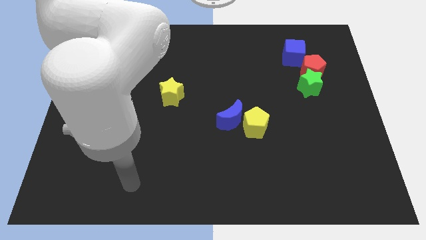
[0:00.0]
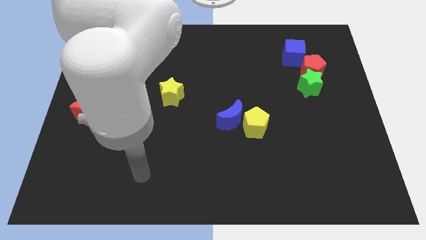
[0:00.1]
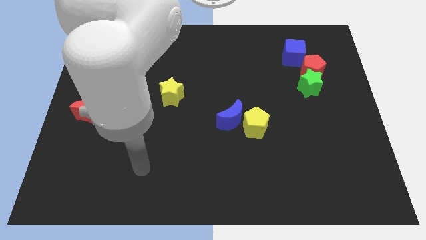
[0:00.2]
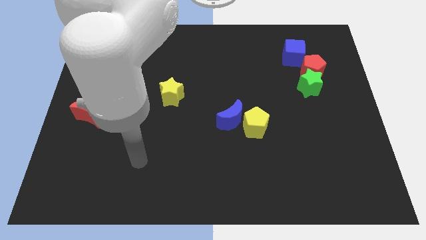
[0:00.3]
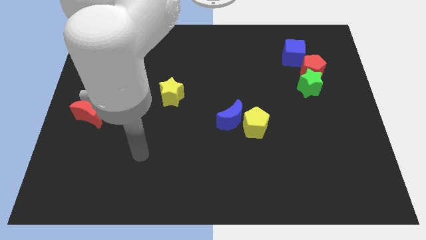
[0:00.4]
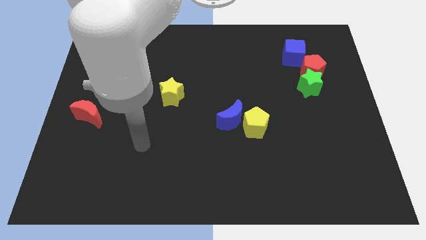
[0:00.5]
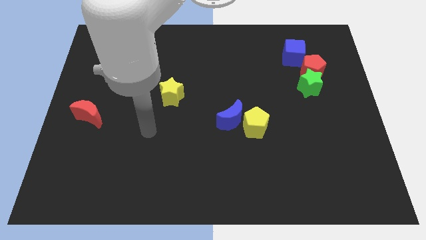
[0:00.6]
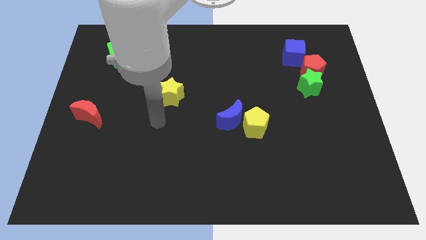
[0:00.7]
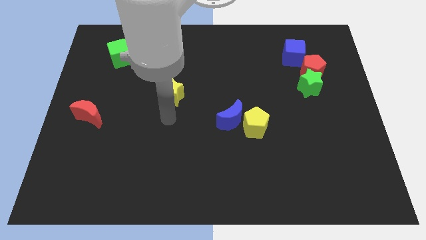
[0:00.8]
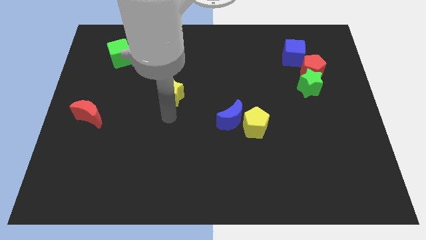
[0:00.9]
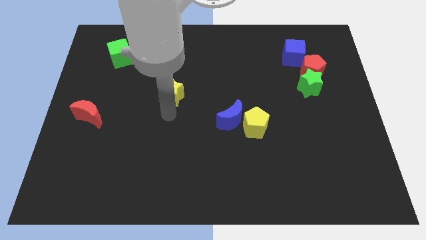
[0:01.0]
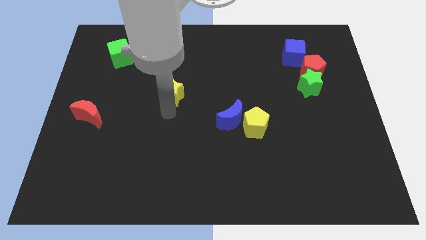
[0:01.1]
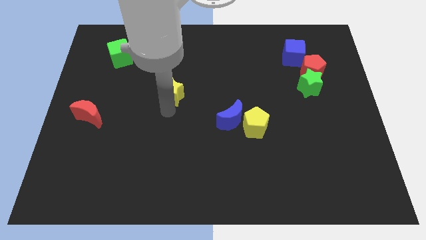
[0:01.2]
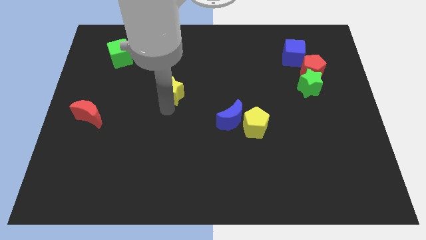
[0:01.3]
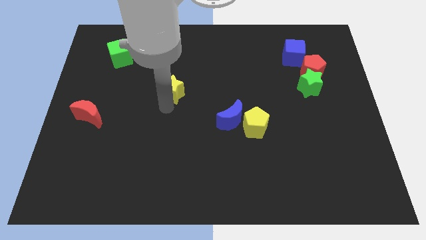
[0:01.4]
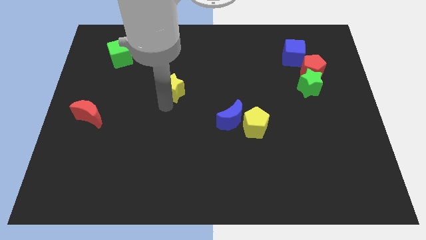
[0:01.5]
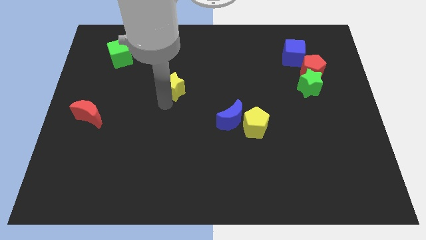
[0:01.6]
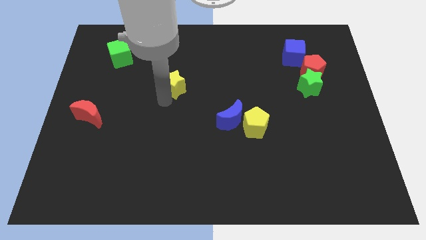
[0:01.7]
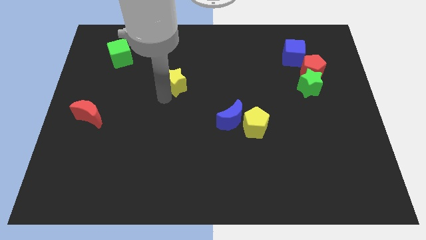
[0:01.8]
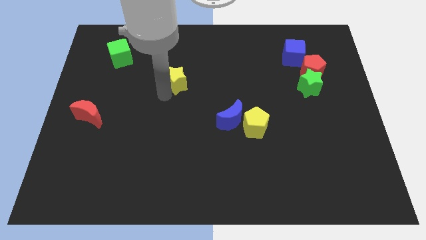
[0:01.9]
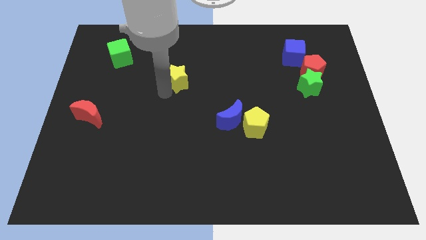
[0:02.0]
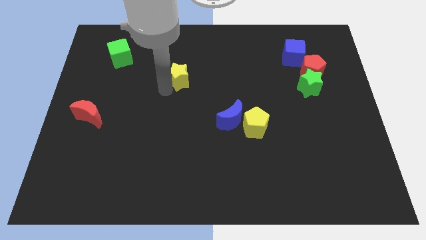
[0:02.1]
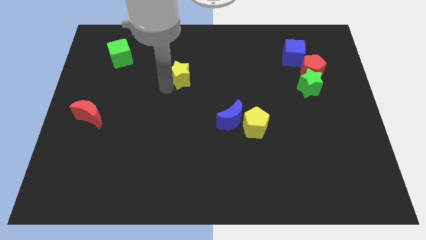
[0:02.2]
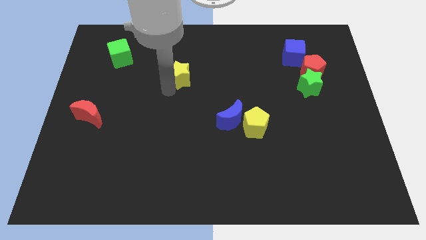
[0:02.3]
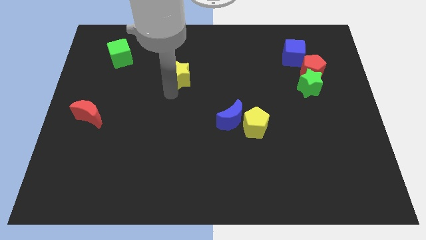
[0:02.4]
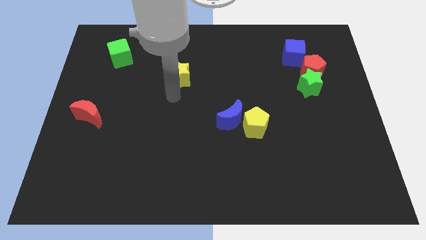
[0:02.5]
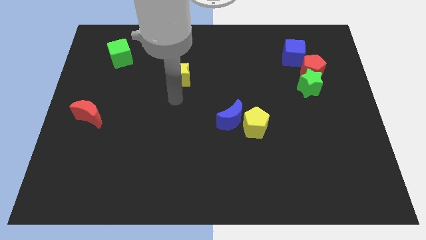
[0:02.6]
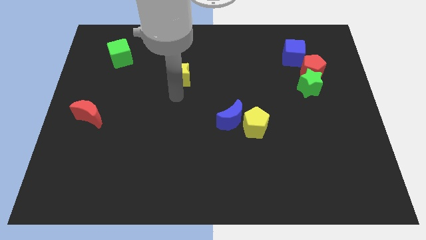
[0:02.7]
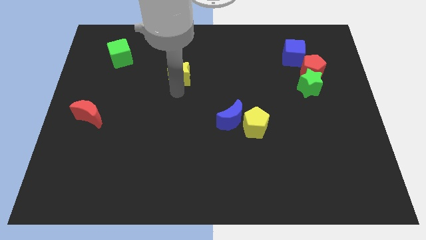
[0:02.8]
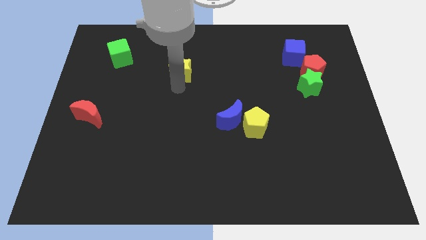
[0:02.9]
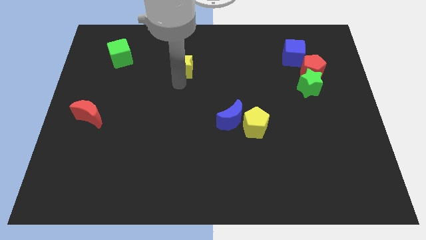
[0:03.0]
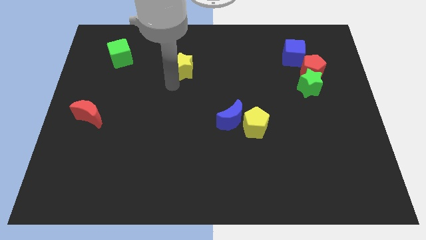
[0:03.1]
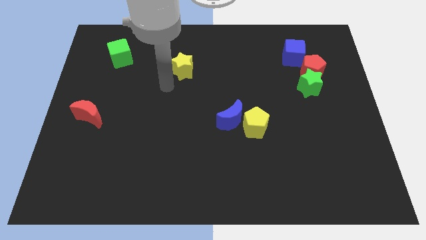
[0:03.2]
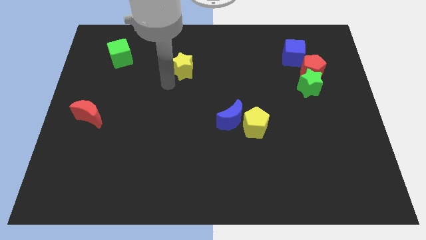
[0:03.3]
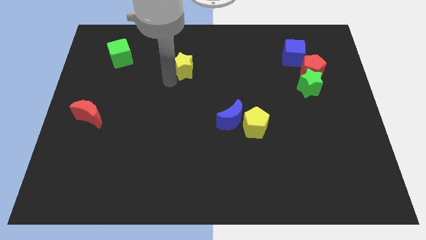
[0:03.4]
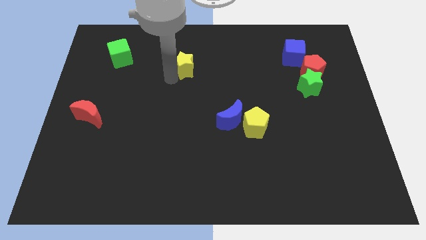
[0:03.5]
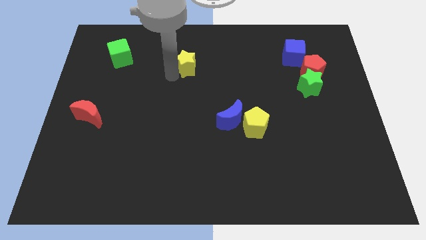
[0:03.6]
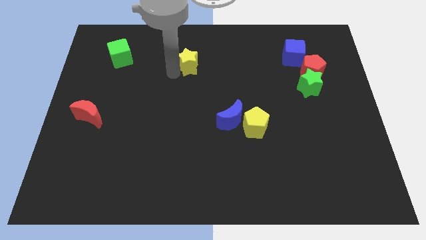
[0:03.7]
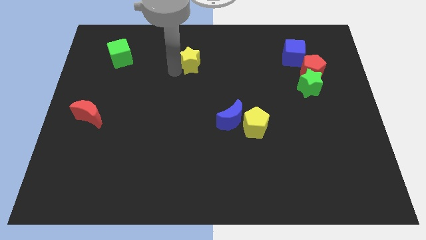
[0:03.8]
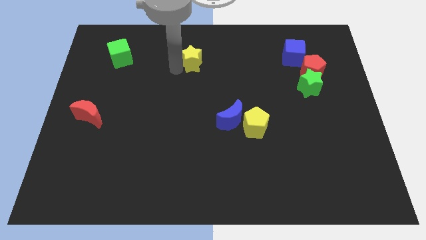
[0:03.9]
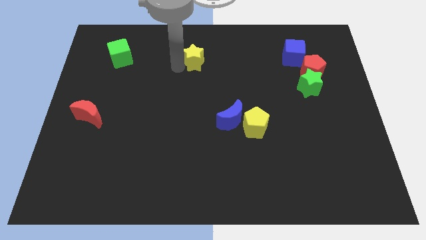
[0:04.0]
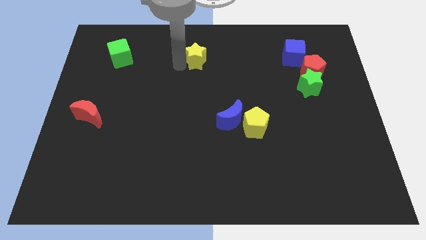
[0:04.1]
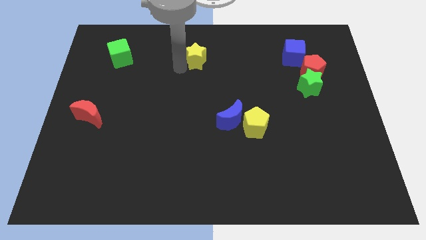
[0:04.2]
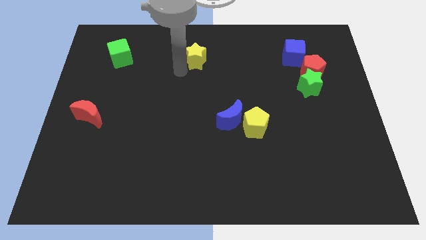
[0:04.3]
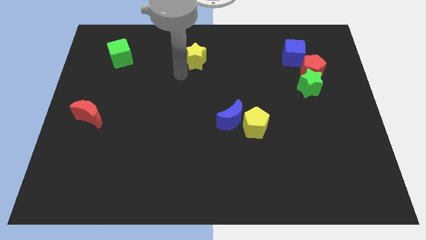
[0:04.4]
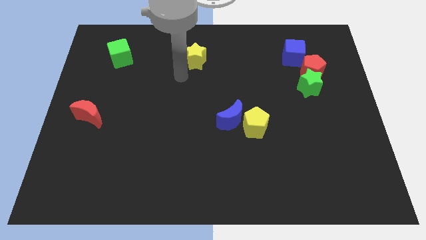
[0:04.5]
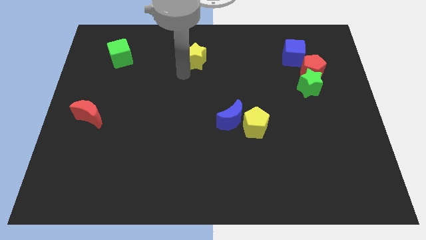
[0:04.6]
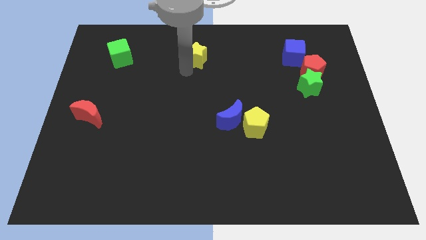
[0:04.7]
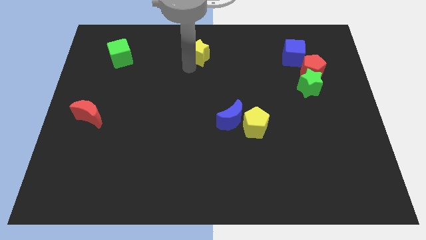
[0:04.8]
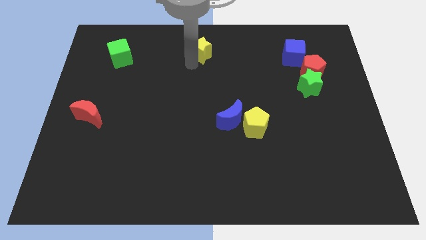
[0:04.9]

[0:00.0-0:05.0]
move the yellow star to the top side

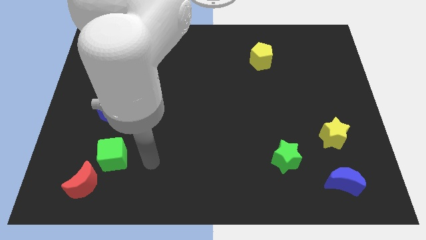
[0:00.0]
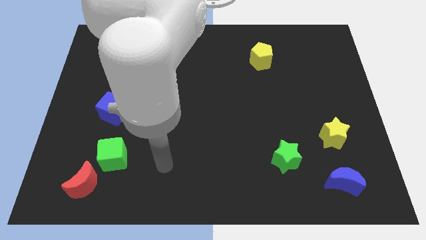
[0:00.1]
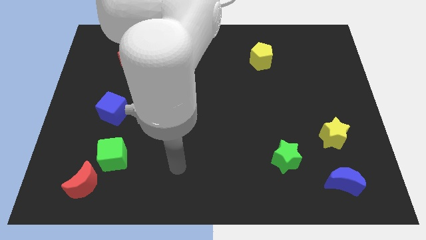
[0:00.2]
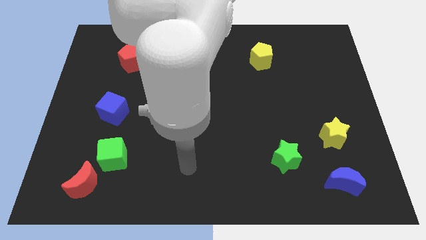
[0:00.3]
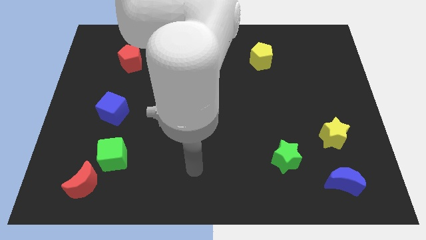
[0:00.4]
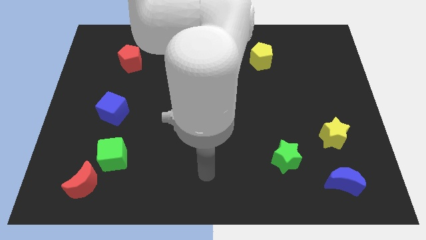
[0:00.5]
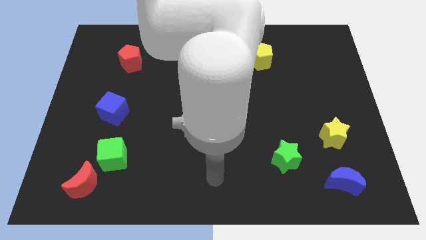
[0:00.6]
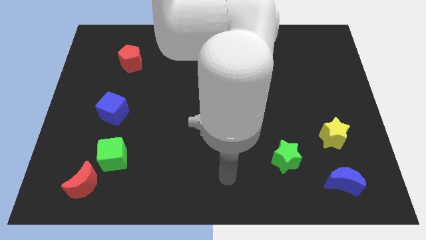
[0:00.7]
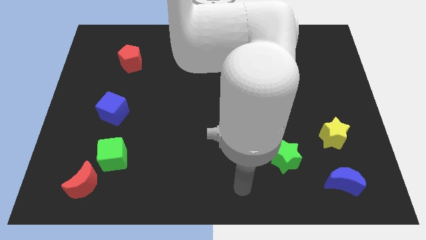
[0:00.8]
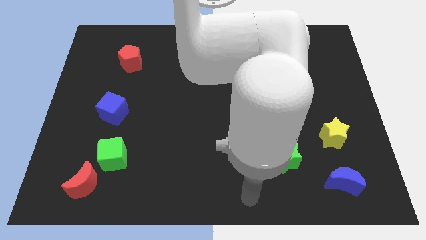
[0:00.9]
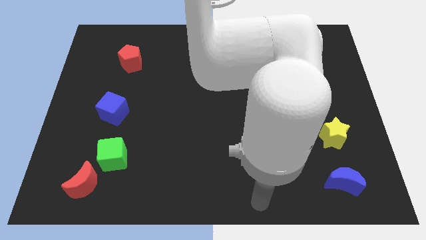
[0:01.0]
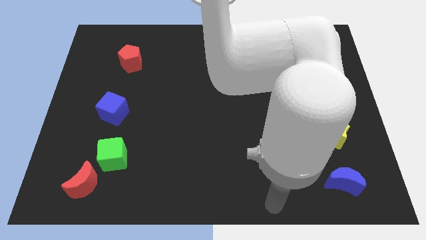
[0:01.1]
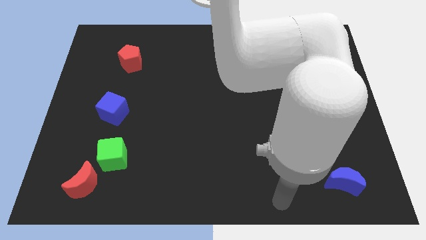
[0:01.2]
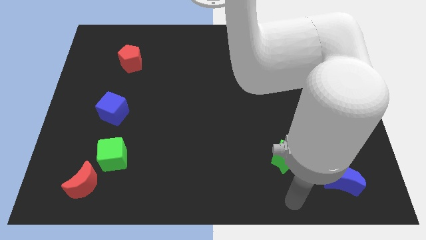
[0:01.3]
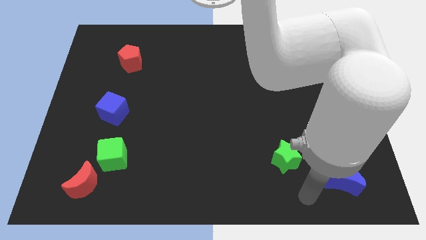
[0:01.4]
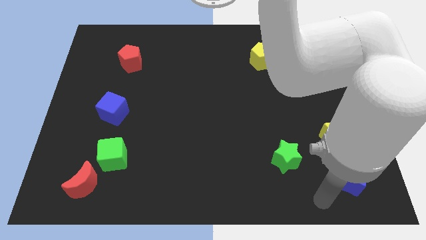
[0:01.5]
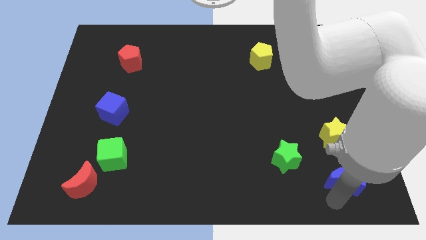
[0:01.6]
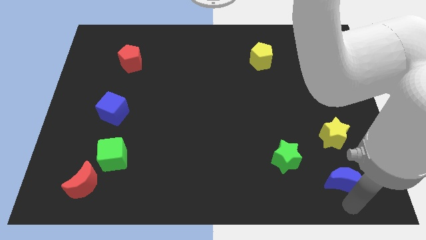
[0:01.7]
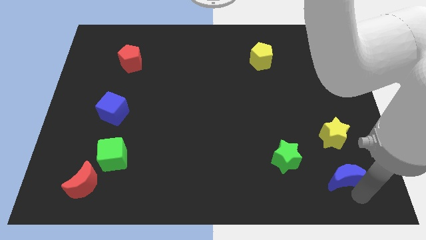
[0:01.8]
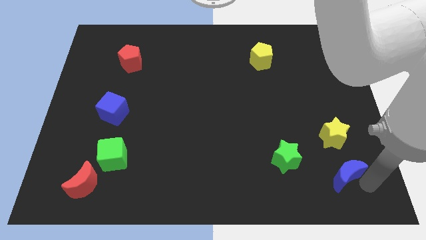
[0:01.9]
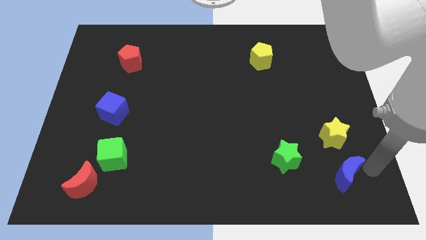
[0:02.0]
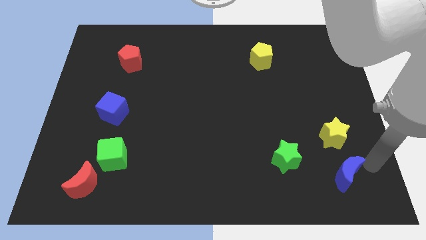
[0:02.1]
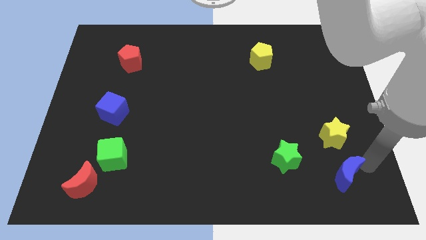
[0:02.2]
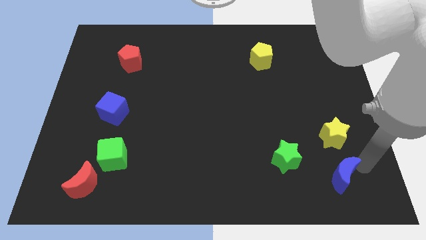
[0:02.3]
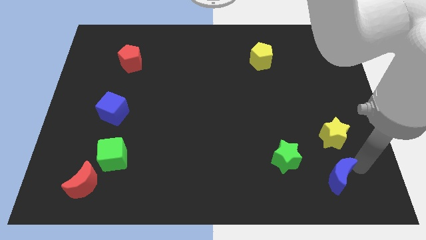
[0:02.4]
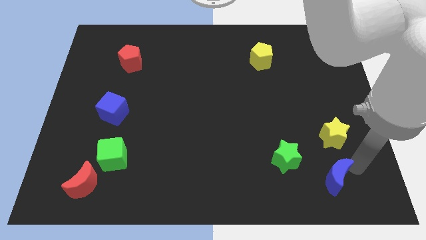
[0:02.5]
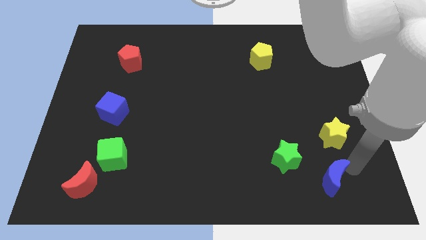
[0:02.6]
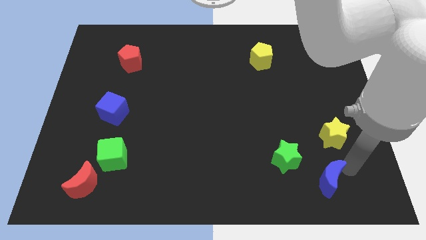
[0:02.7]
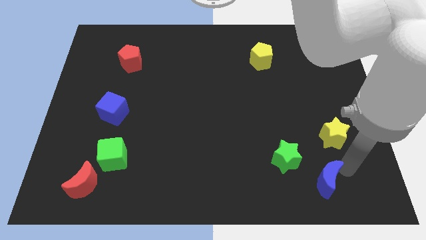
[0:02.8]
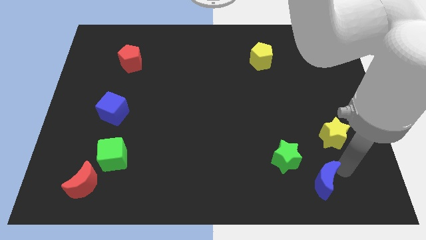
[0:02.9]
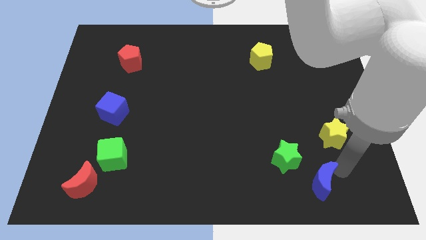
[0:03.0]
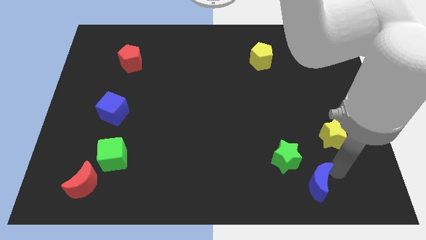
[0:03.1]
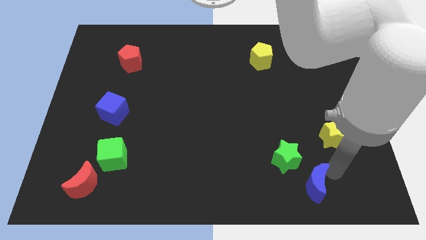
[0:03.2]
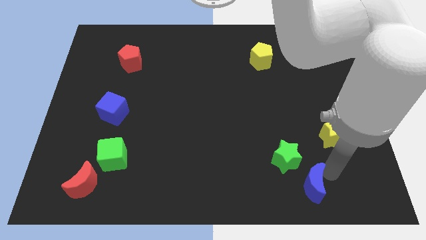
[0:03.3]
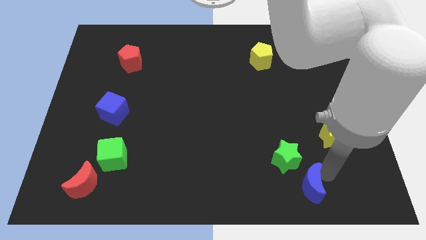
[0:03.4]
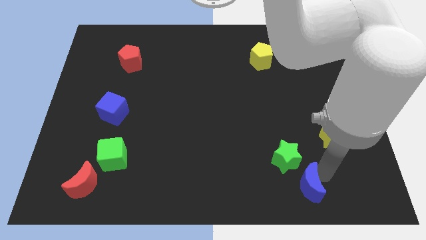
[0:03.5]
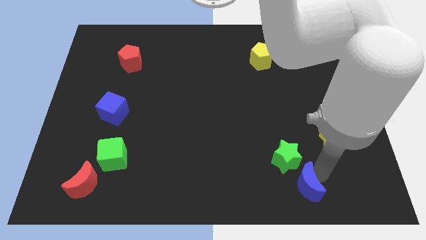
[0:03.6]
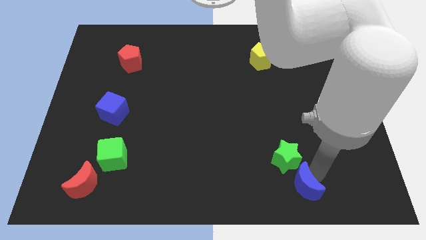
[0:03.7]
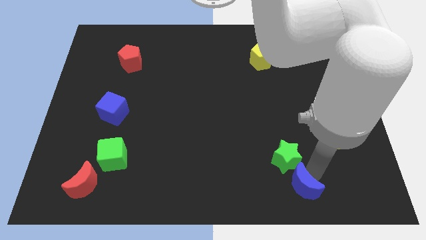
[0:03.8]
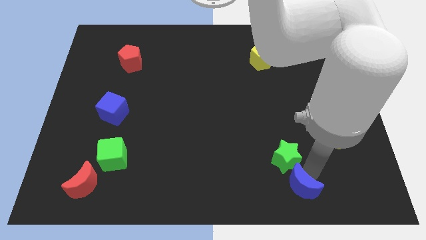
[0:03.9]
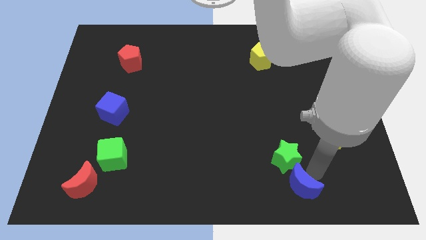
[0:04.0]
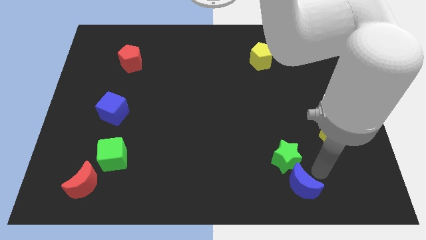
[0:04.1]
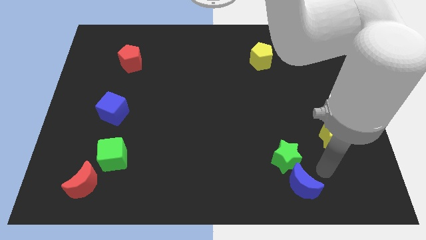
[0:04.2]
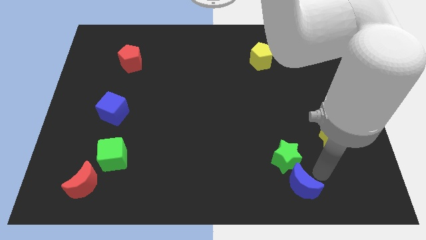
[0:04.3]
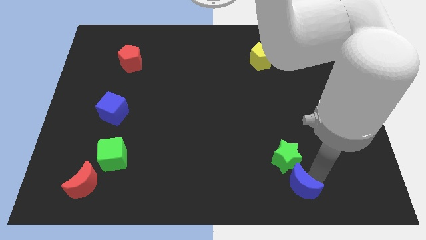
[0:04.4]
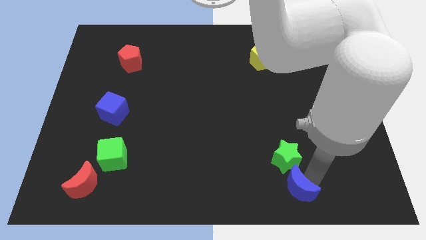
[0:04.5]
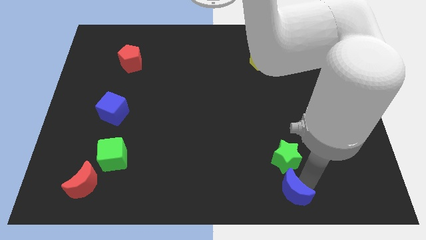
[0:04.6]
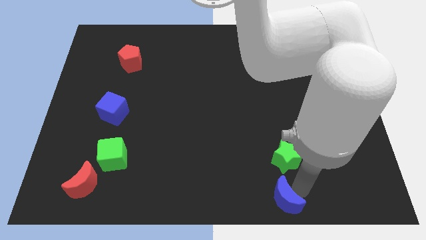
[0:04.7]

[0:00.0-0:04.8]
push the blue moon to the bottom side
